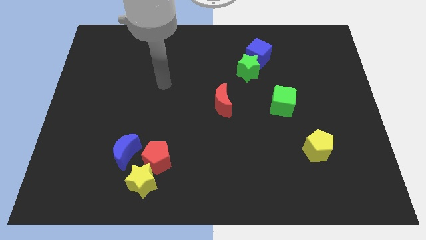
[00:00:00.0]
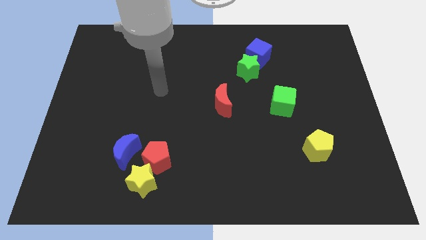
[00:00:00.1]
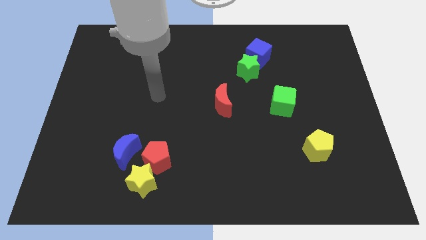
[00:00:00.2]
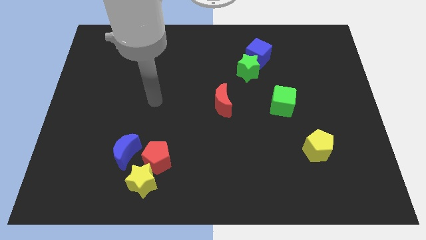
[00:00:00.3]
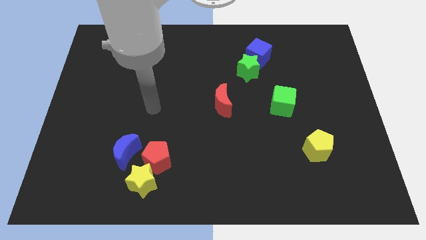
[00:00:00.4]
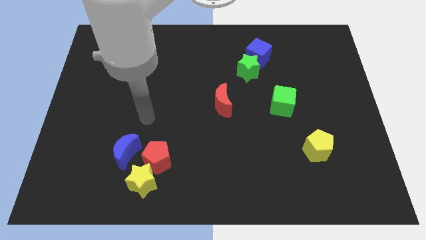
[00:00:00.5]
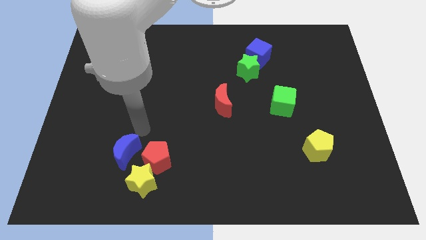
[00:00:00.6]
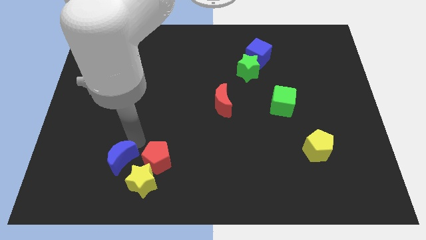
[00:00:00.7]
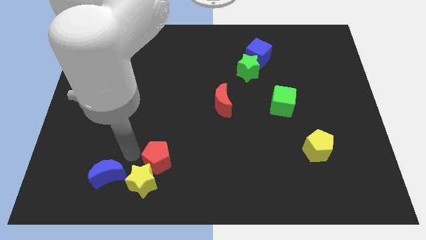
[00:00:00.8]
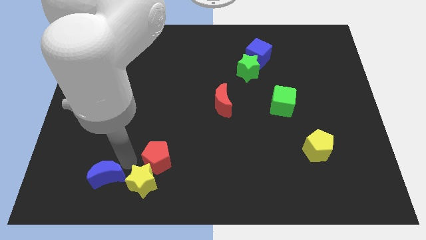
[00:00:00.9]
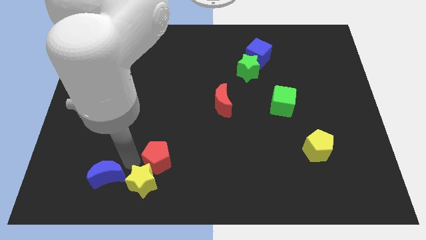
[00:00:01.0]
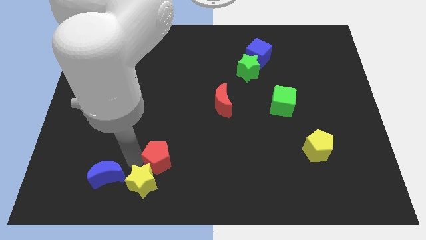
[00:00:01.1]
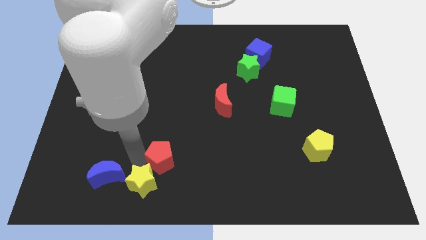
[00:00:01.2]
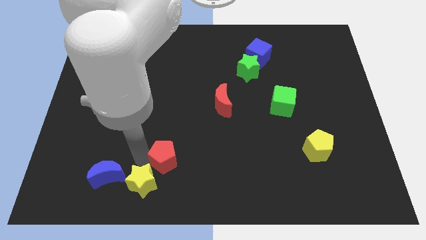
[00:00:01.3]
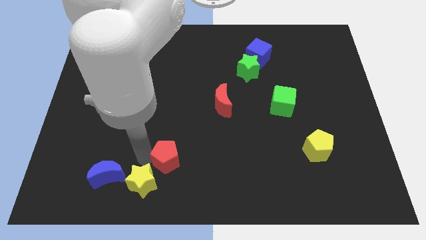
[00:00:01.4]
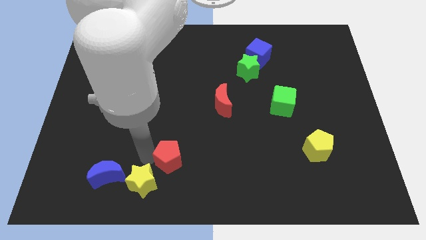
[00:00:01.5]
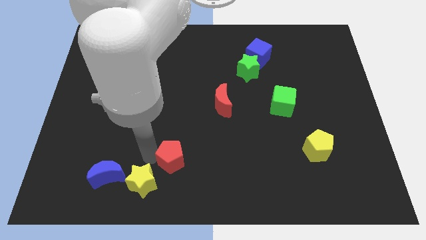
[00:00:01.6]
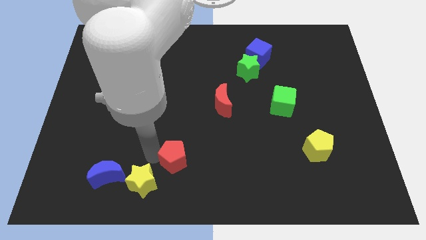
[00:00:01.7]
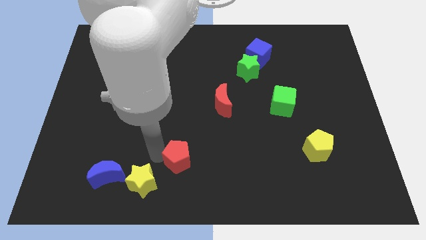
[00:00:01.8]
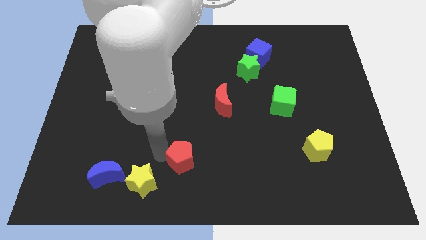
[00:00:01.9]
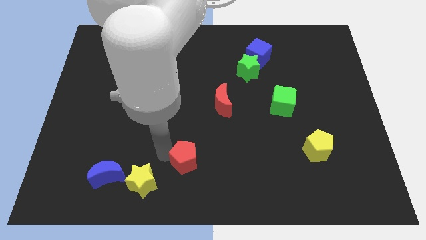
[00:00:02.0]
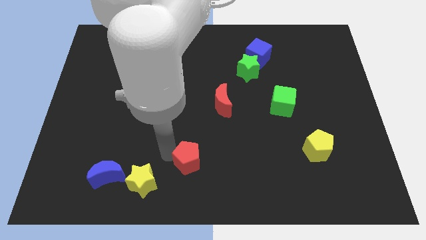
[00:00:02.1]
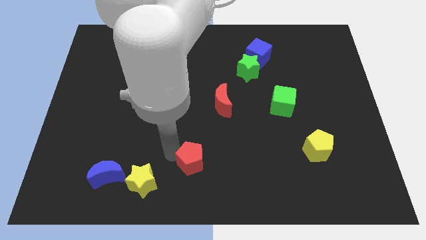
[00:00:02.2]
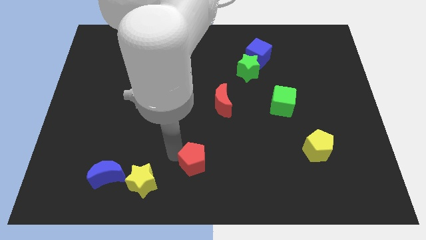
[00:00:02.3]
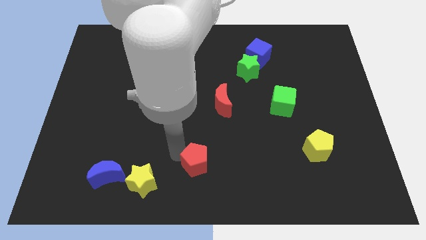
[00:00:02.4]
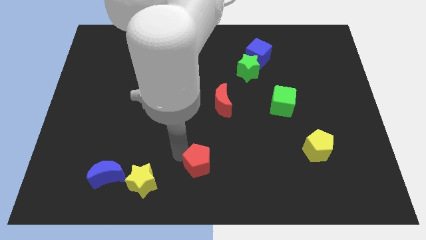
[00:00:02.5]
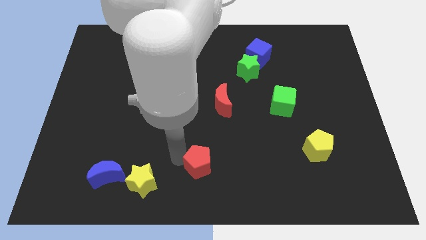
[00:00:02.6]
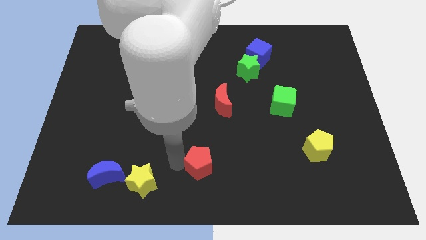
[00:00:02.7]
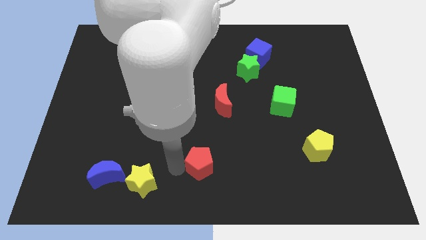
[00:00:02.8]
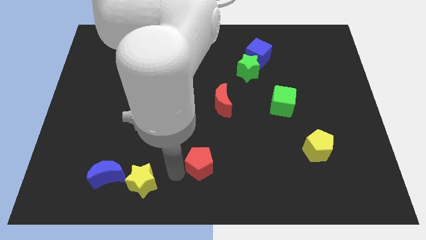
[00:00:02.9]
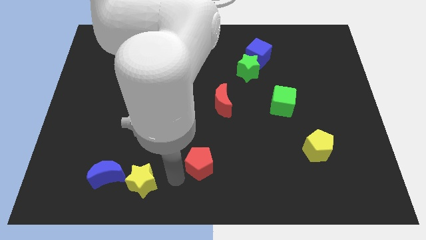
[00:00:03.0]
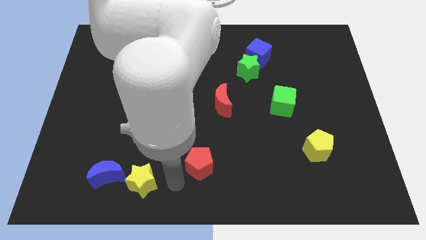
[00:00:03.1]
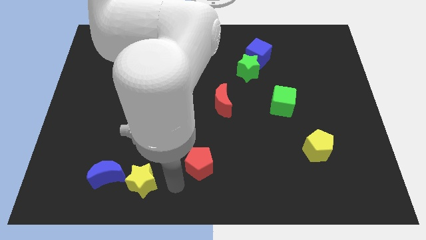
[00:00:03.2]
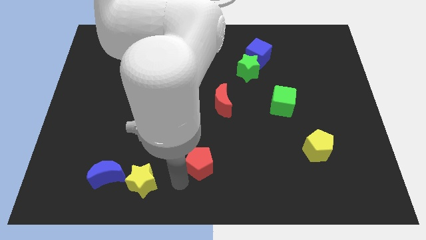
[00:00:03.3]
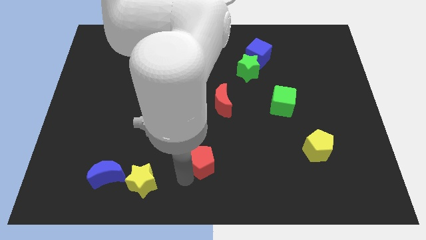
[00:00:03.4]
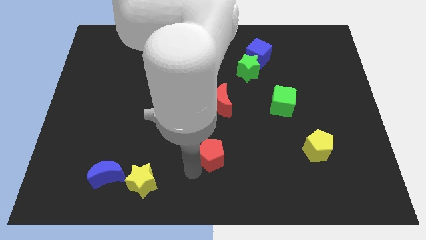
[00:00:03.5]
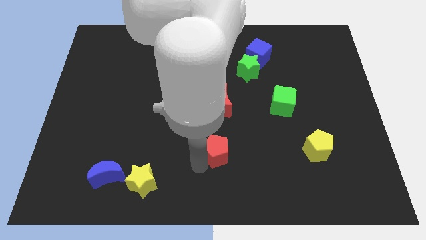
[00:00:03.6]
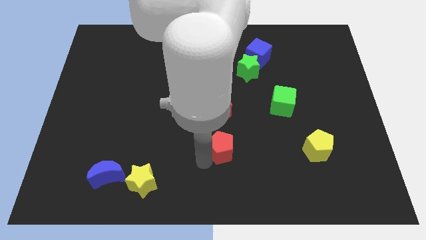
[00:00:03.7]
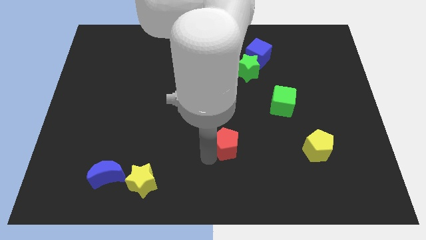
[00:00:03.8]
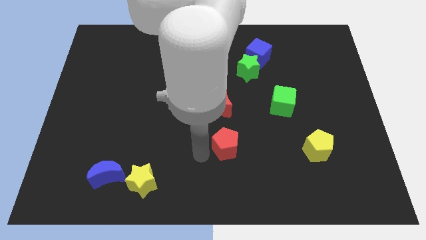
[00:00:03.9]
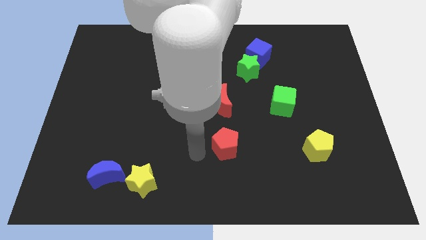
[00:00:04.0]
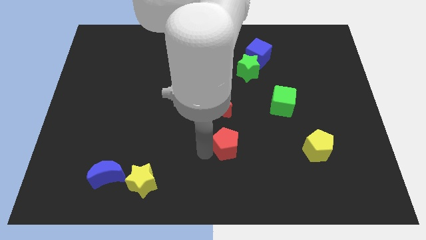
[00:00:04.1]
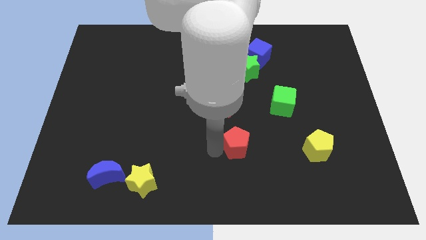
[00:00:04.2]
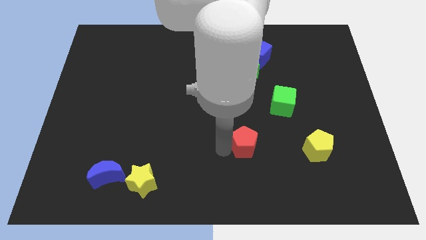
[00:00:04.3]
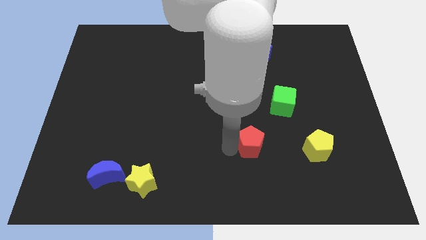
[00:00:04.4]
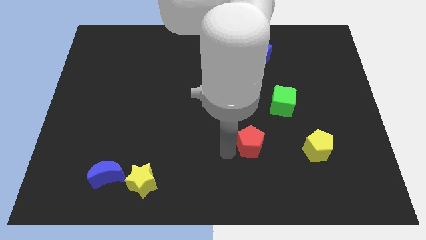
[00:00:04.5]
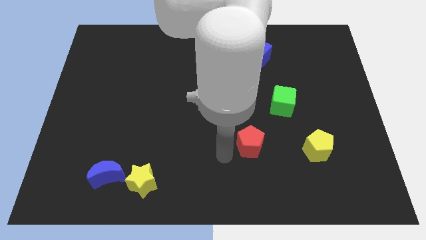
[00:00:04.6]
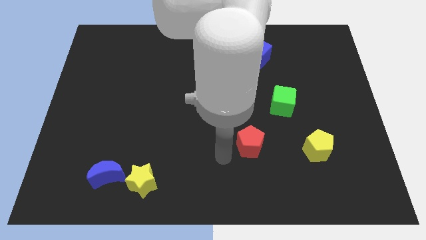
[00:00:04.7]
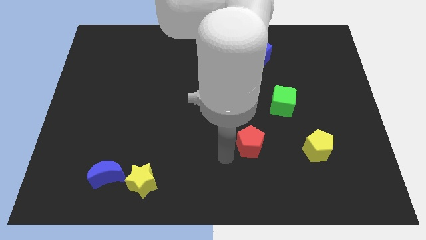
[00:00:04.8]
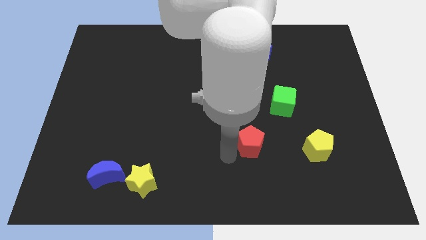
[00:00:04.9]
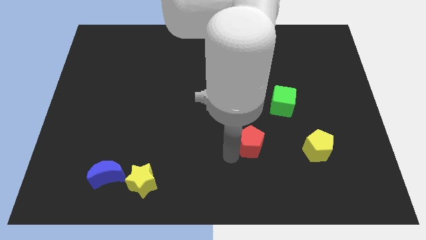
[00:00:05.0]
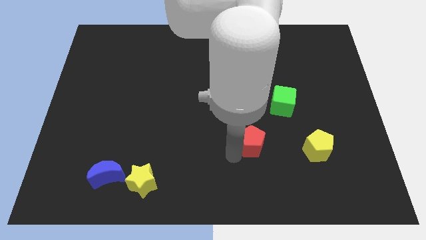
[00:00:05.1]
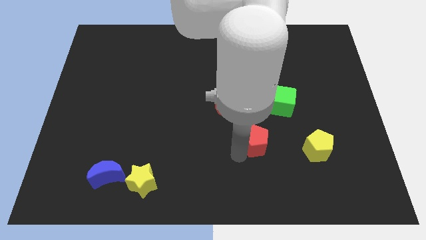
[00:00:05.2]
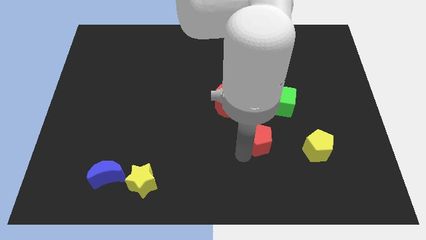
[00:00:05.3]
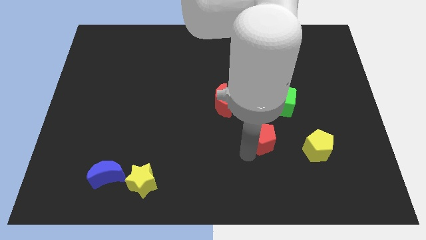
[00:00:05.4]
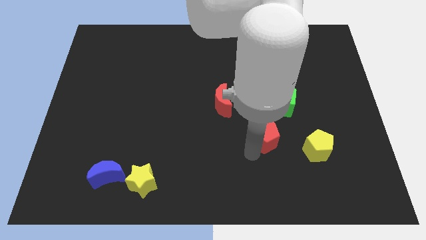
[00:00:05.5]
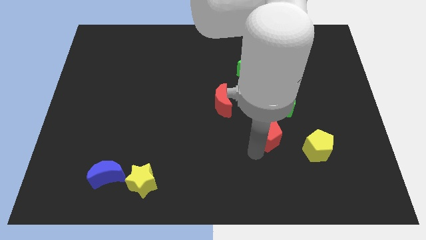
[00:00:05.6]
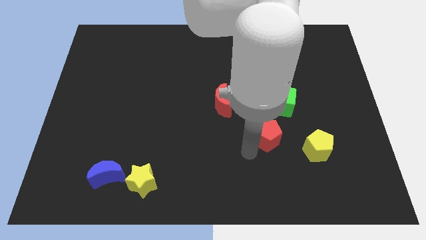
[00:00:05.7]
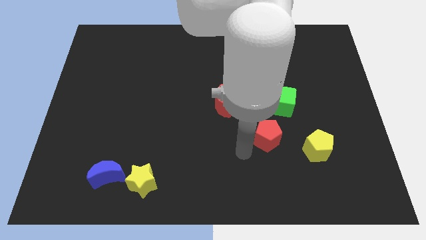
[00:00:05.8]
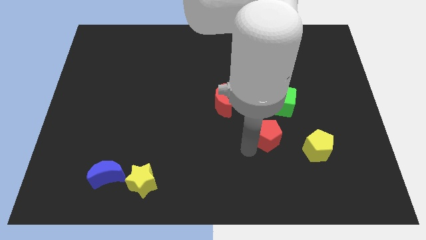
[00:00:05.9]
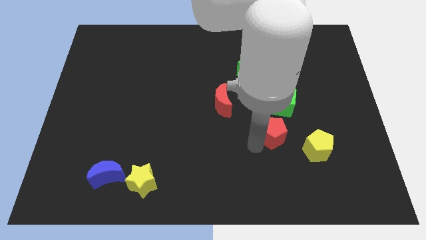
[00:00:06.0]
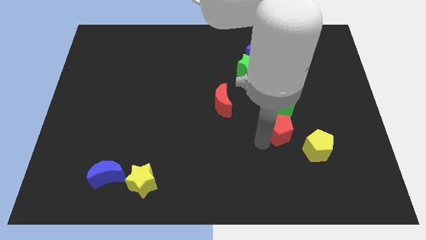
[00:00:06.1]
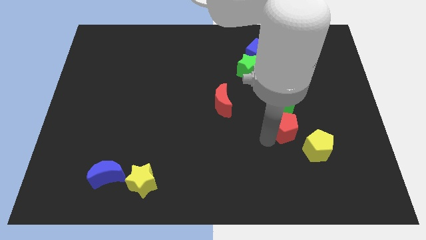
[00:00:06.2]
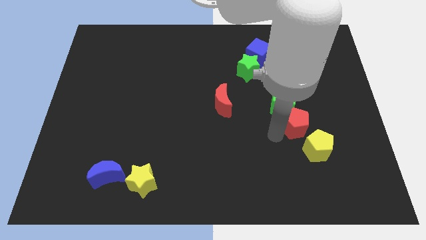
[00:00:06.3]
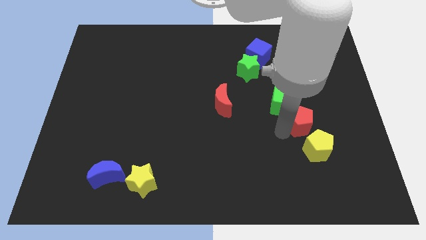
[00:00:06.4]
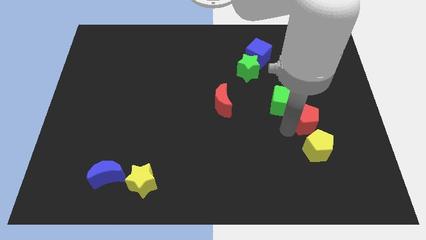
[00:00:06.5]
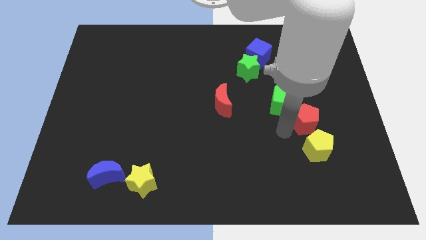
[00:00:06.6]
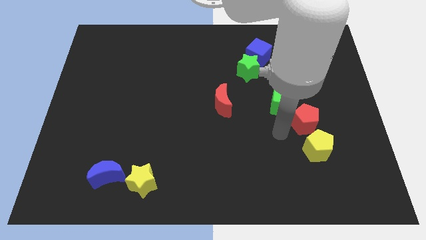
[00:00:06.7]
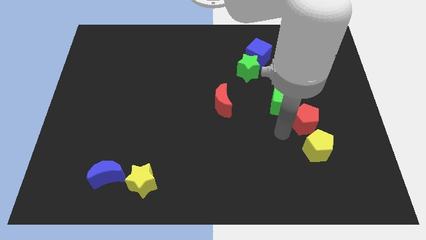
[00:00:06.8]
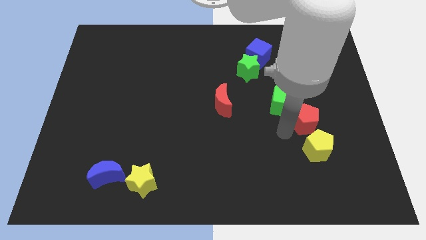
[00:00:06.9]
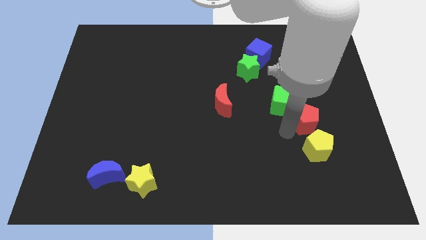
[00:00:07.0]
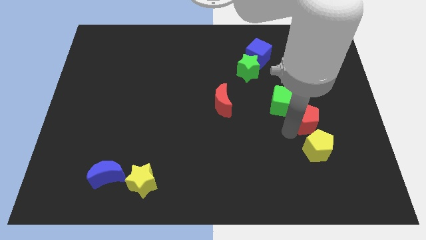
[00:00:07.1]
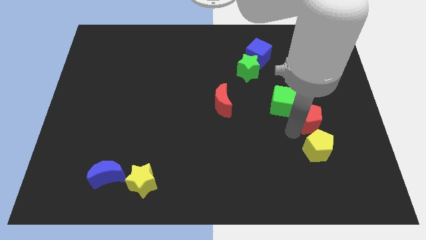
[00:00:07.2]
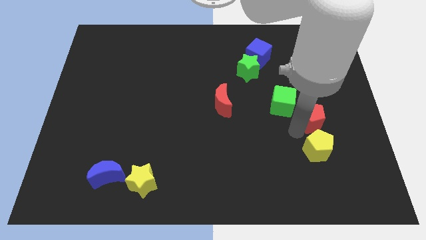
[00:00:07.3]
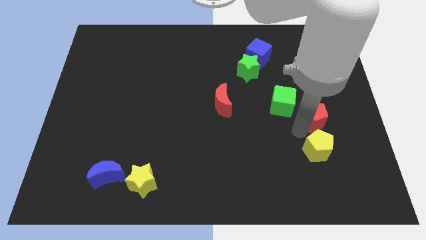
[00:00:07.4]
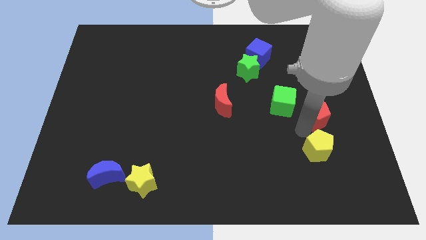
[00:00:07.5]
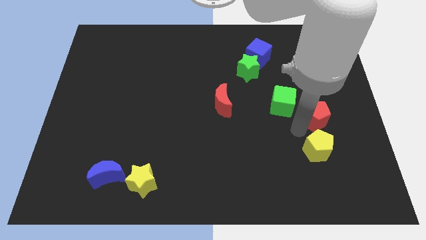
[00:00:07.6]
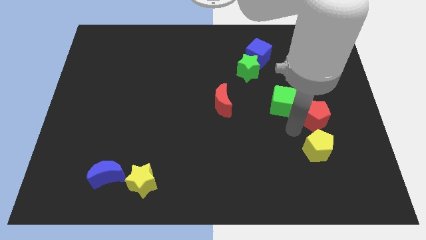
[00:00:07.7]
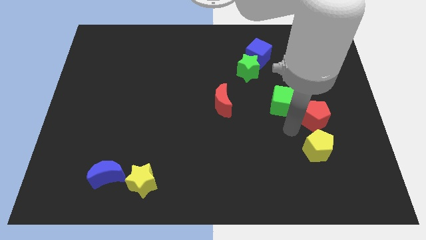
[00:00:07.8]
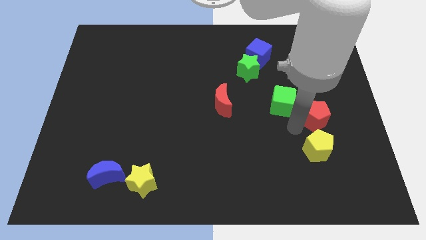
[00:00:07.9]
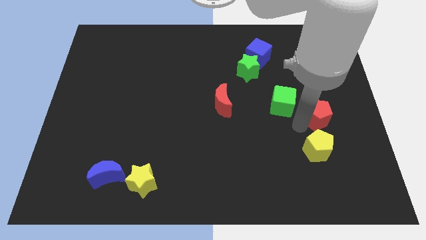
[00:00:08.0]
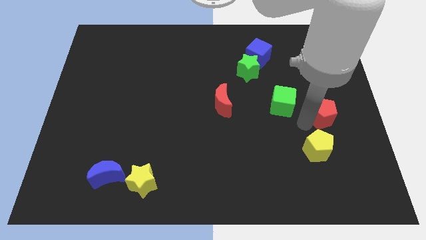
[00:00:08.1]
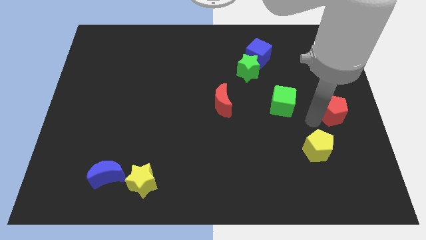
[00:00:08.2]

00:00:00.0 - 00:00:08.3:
slide the red pentagon to the right side
